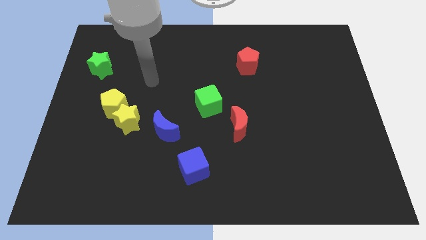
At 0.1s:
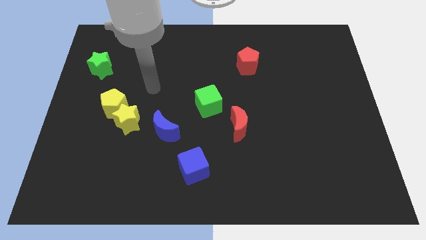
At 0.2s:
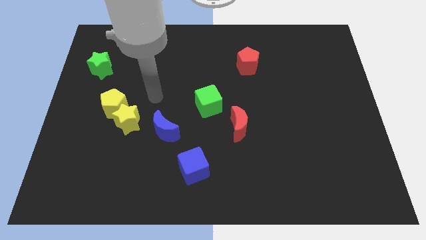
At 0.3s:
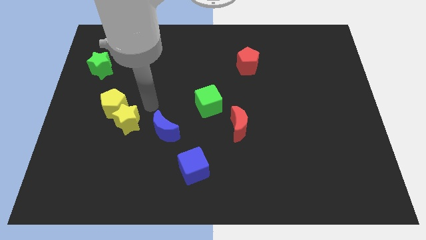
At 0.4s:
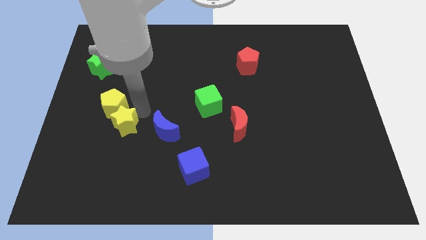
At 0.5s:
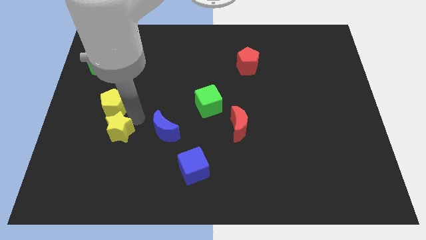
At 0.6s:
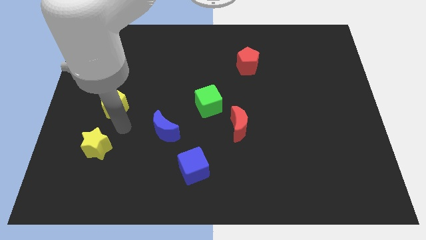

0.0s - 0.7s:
move the yellow pentagon away from the yellow star

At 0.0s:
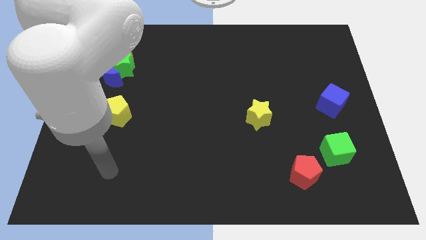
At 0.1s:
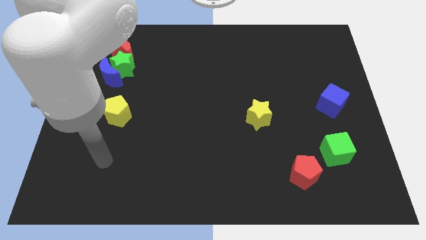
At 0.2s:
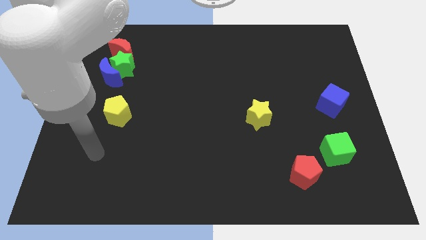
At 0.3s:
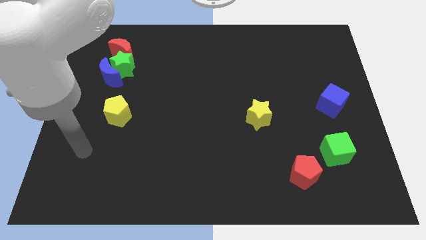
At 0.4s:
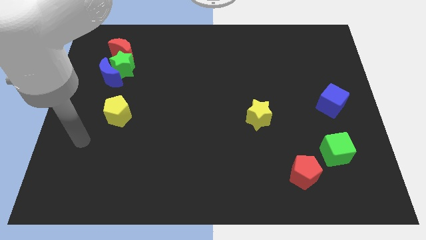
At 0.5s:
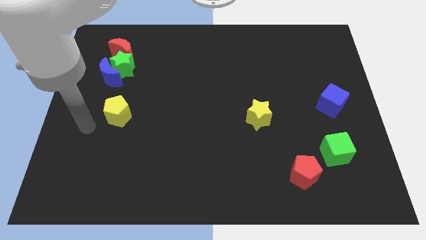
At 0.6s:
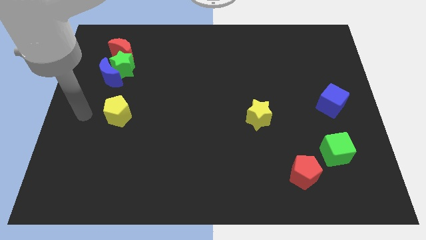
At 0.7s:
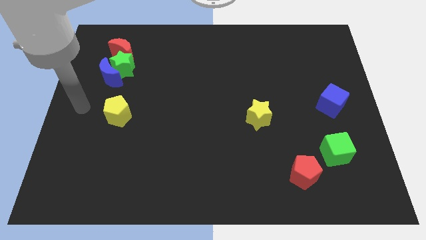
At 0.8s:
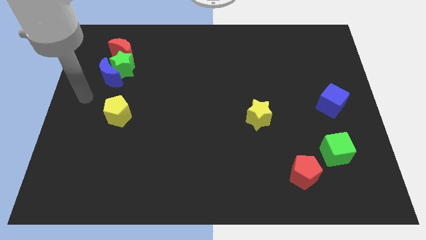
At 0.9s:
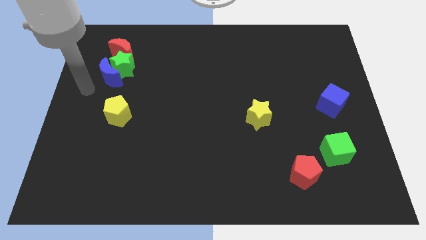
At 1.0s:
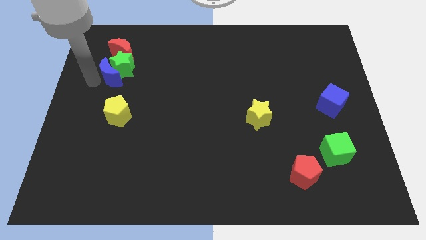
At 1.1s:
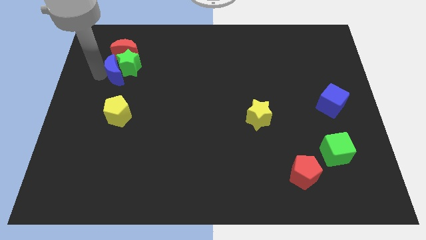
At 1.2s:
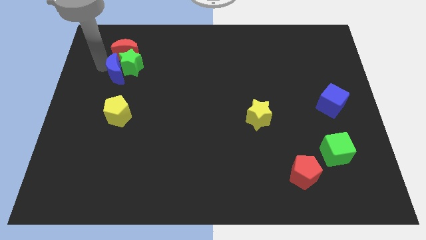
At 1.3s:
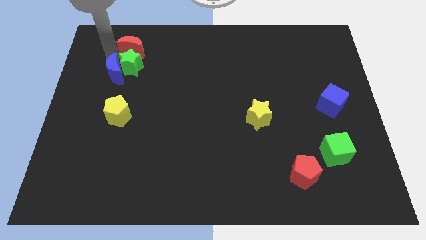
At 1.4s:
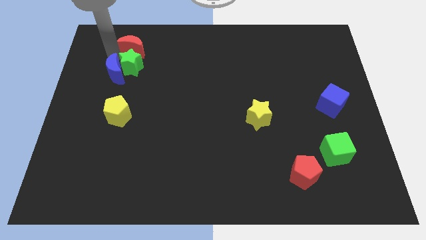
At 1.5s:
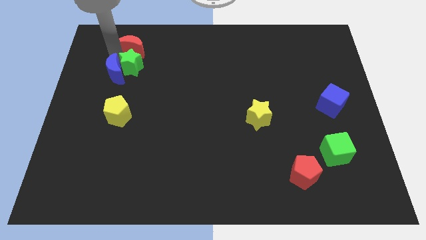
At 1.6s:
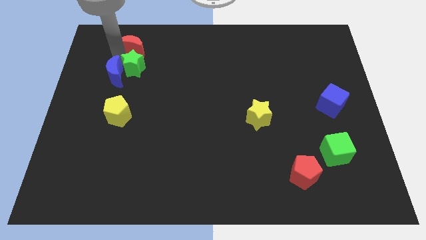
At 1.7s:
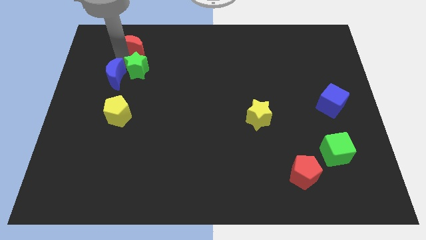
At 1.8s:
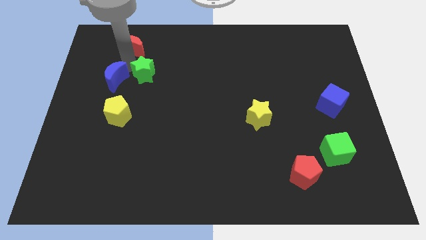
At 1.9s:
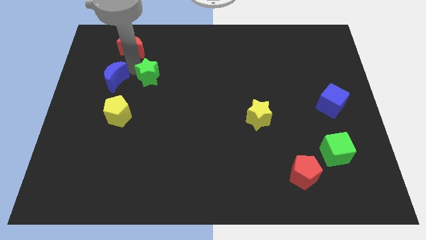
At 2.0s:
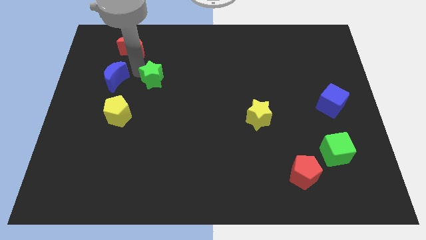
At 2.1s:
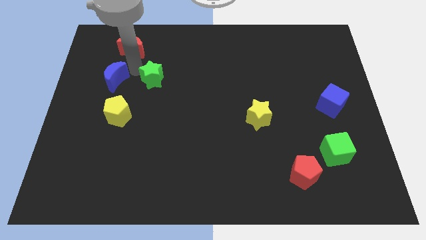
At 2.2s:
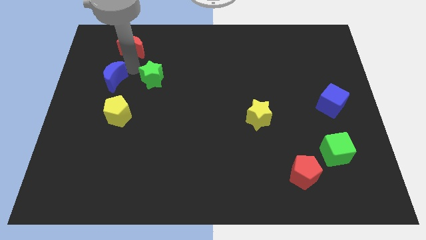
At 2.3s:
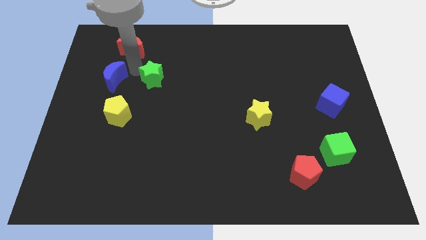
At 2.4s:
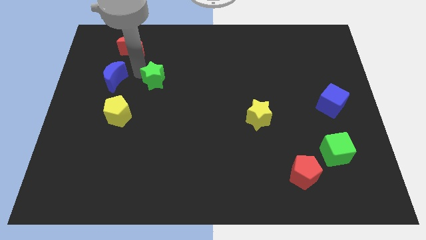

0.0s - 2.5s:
separate the green star from the blue moon and red moon

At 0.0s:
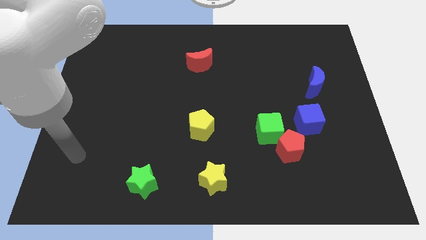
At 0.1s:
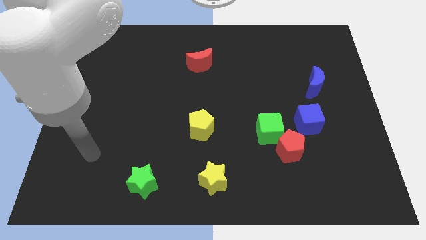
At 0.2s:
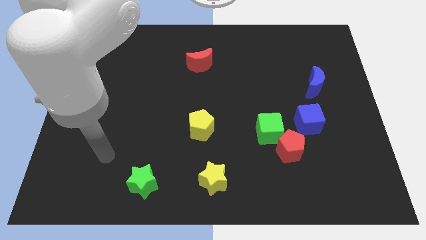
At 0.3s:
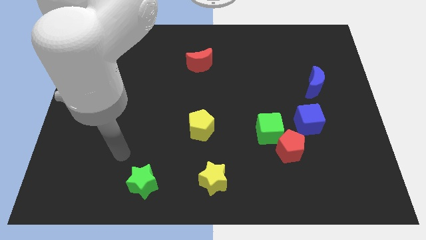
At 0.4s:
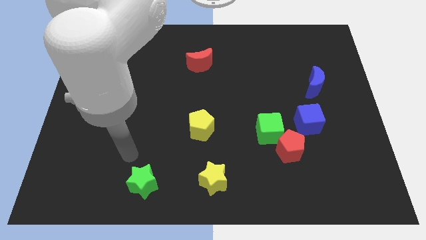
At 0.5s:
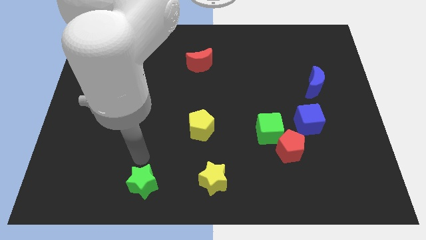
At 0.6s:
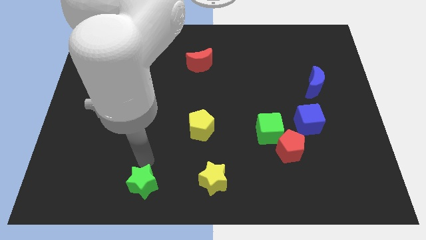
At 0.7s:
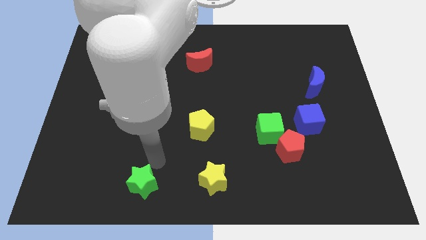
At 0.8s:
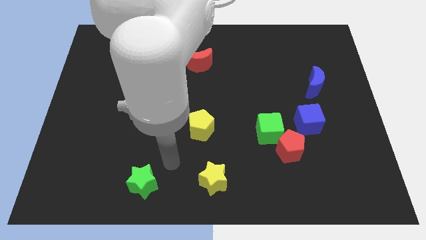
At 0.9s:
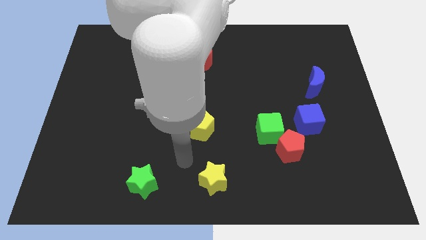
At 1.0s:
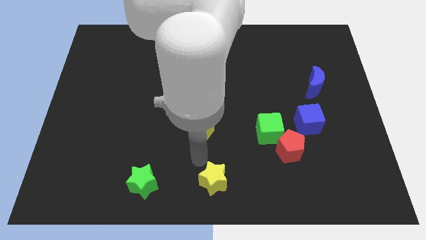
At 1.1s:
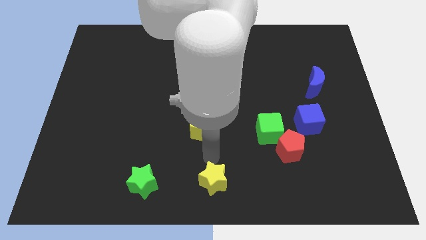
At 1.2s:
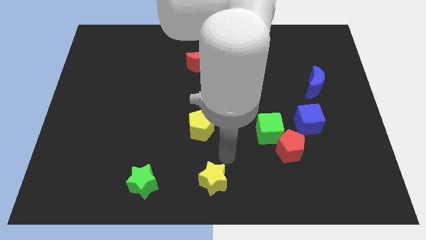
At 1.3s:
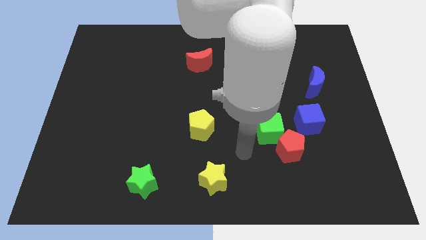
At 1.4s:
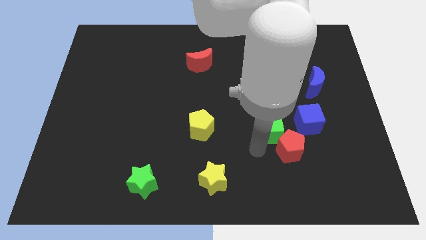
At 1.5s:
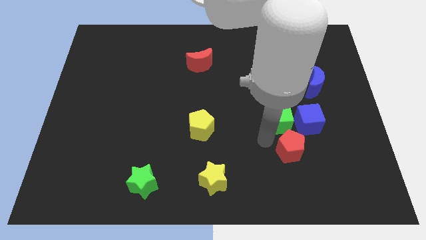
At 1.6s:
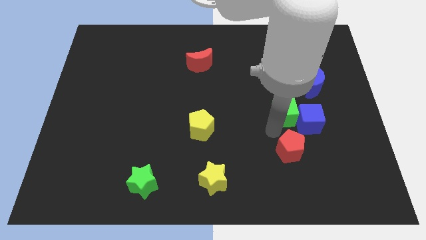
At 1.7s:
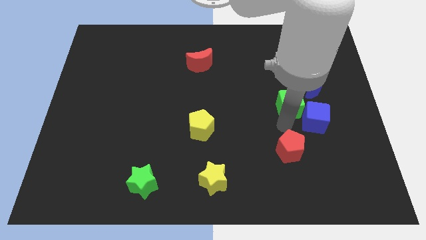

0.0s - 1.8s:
pull the red pentagon apart from the green cube and blue cube

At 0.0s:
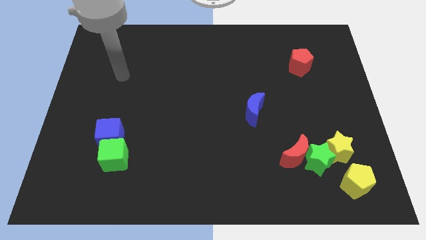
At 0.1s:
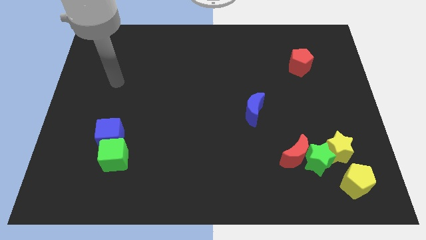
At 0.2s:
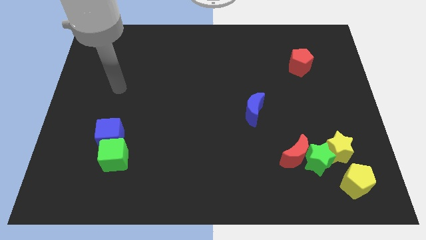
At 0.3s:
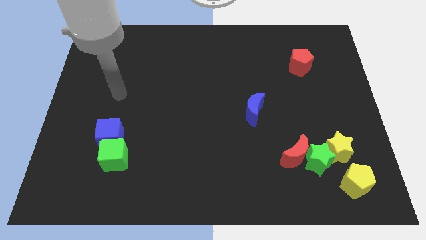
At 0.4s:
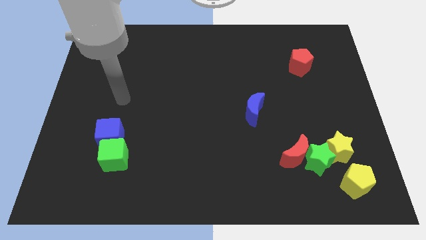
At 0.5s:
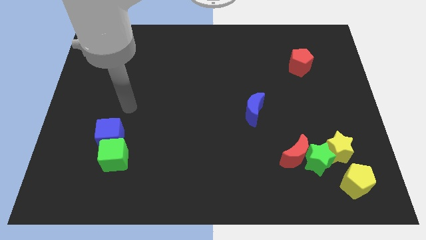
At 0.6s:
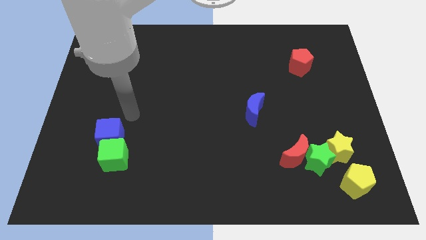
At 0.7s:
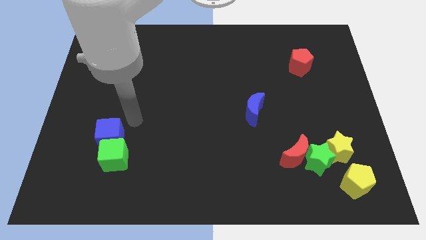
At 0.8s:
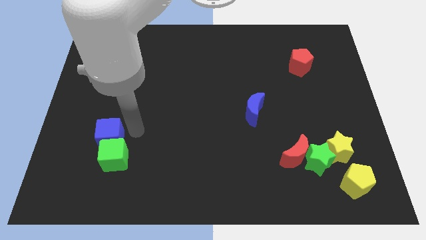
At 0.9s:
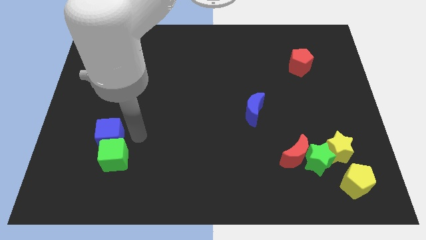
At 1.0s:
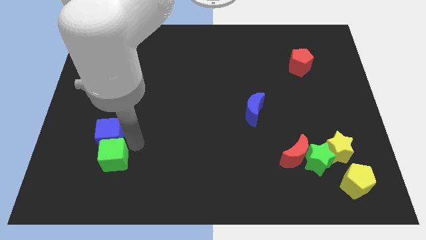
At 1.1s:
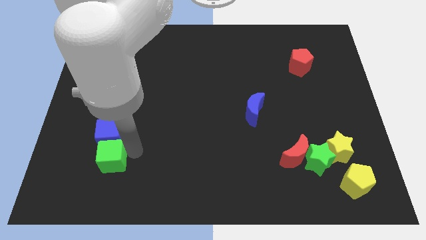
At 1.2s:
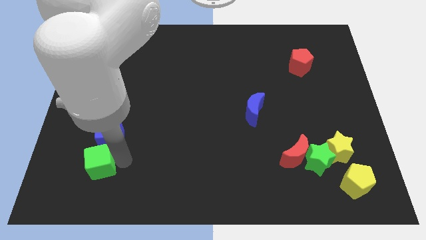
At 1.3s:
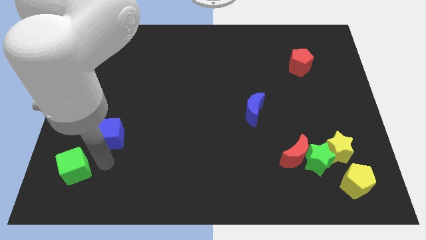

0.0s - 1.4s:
pull the blue cube apart from the green cube

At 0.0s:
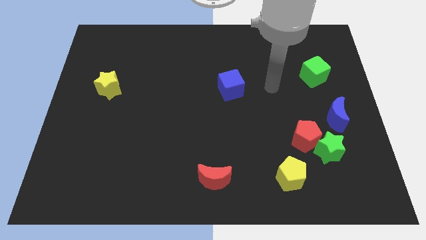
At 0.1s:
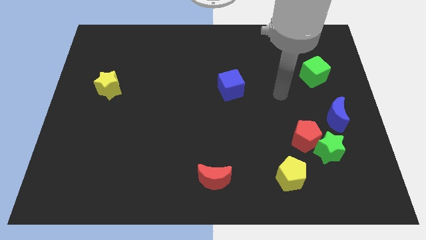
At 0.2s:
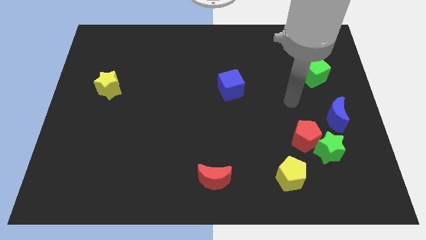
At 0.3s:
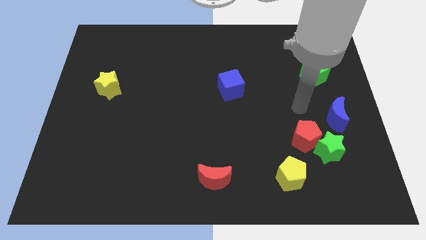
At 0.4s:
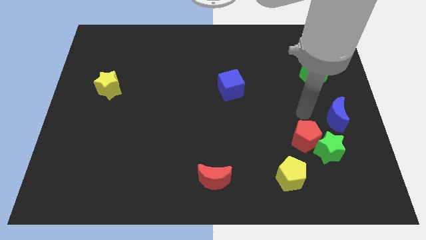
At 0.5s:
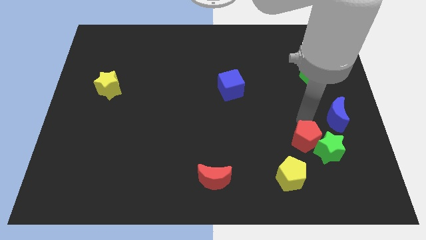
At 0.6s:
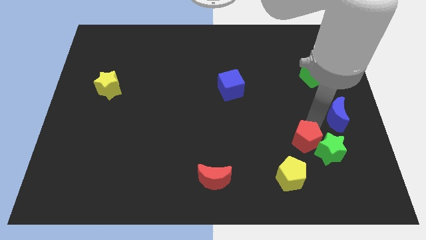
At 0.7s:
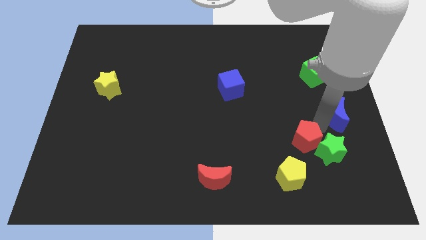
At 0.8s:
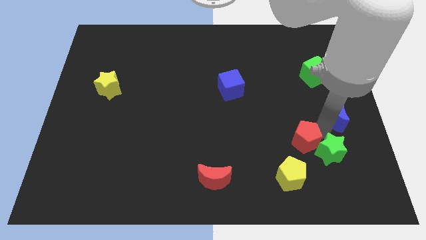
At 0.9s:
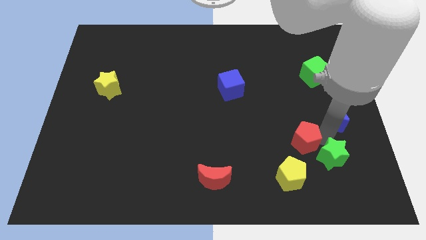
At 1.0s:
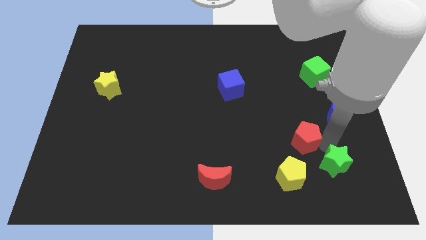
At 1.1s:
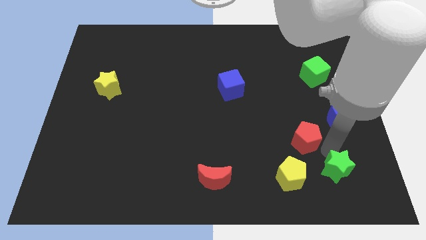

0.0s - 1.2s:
separate the green star from the red pentagon and blue moon

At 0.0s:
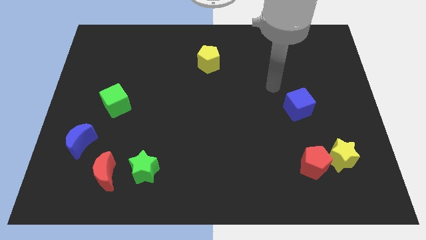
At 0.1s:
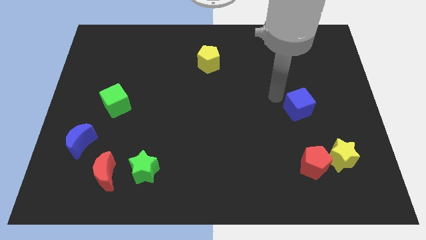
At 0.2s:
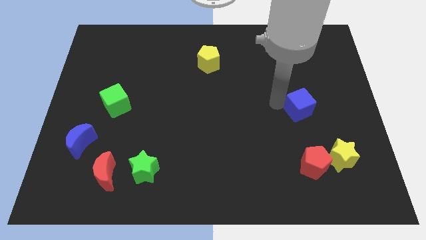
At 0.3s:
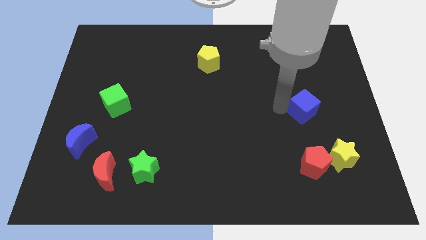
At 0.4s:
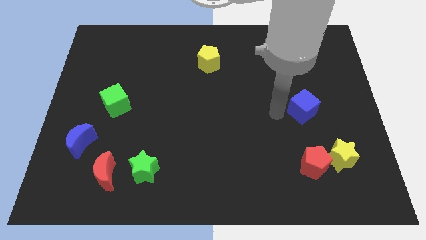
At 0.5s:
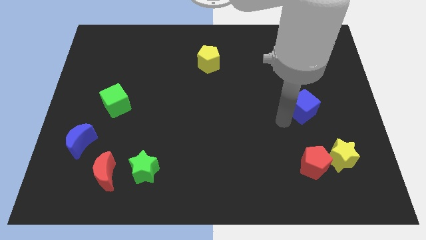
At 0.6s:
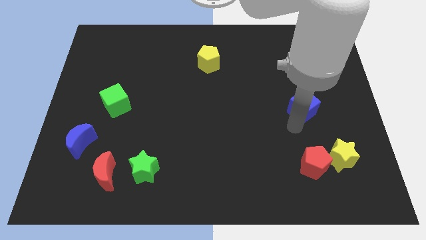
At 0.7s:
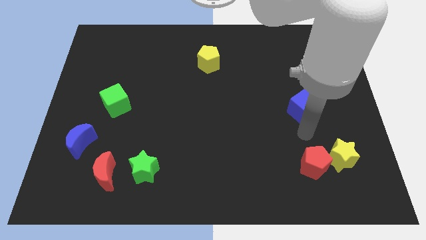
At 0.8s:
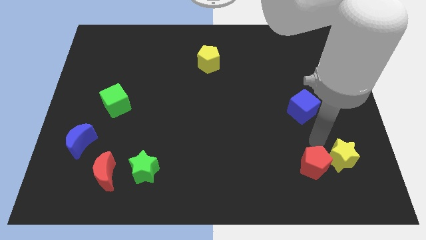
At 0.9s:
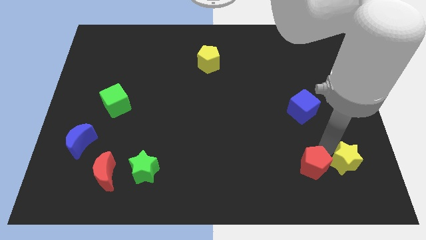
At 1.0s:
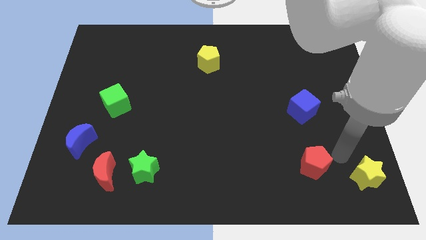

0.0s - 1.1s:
separate the red pentagon from the yellow star

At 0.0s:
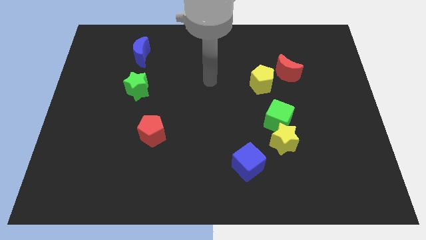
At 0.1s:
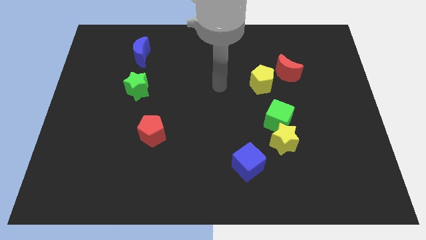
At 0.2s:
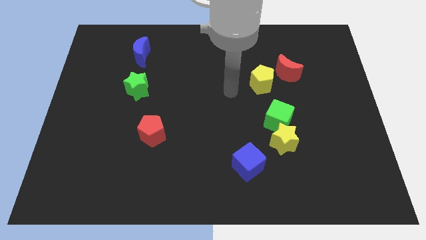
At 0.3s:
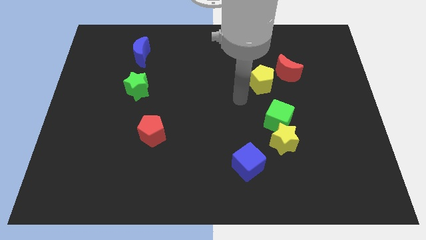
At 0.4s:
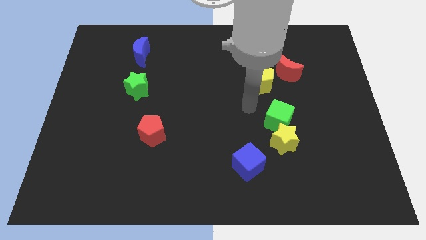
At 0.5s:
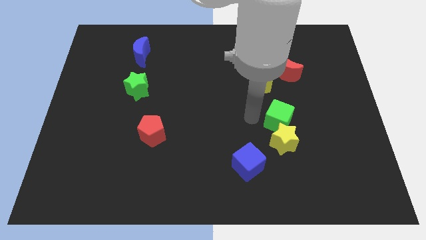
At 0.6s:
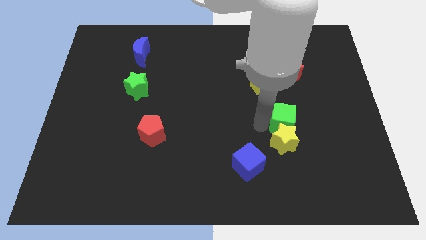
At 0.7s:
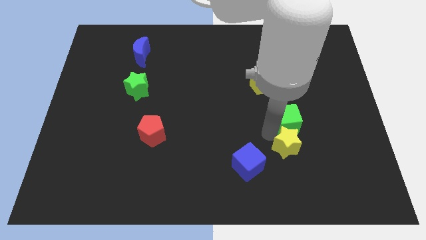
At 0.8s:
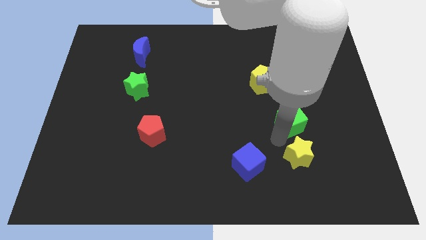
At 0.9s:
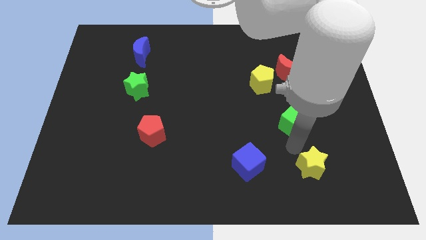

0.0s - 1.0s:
separate the green cube from the yellow star
